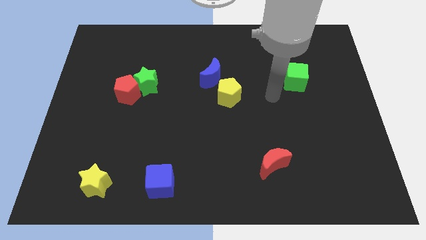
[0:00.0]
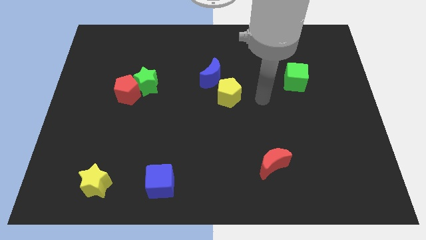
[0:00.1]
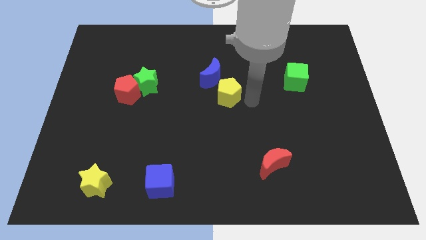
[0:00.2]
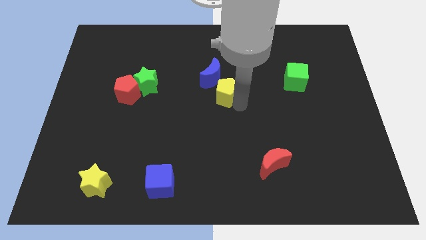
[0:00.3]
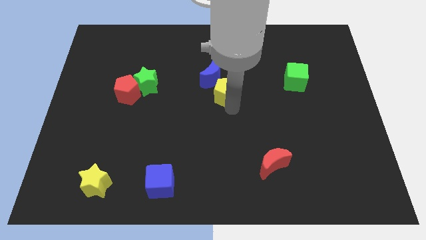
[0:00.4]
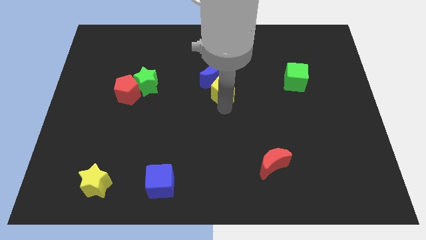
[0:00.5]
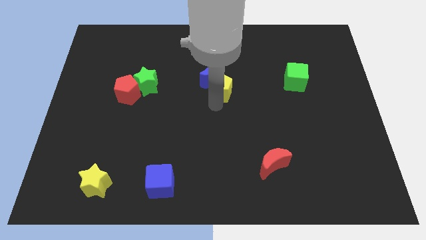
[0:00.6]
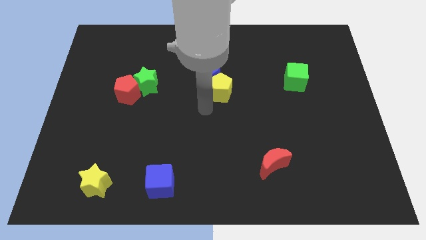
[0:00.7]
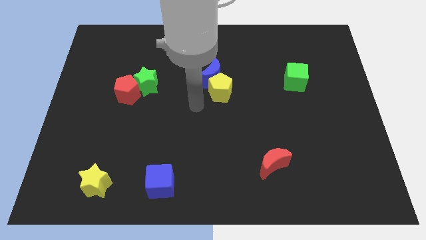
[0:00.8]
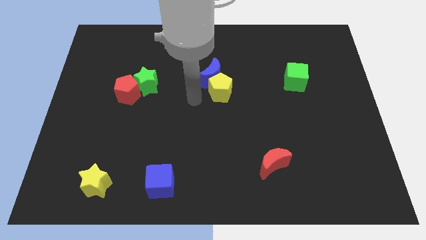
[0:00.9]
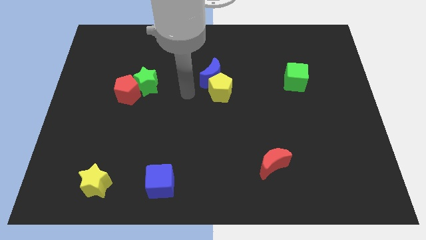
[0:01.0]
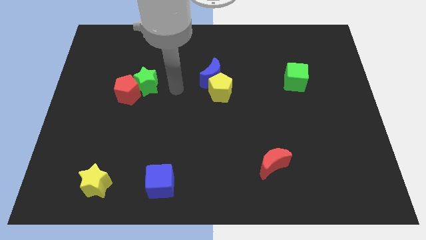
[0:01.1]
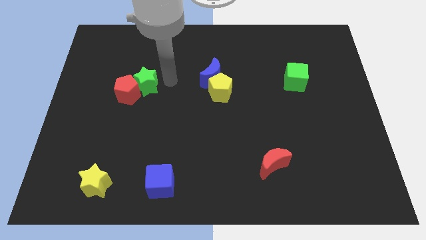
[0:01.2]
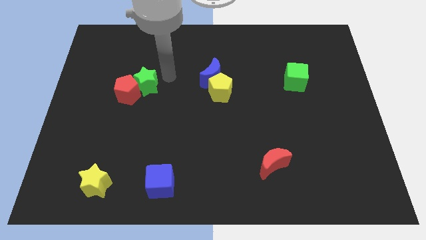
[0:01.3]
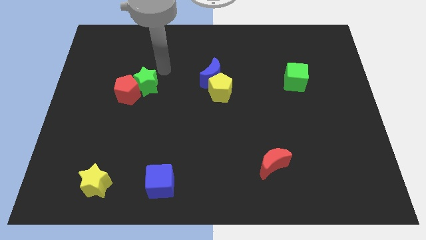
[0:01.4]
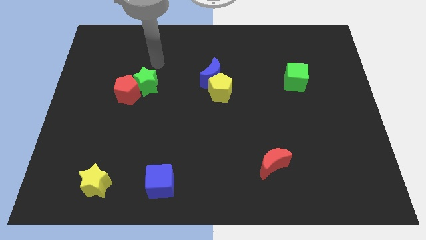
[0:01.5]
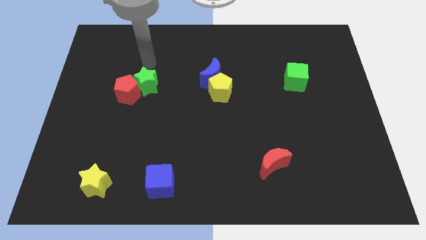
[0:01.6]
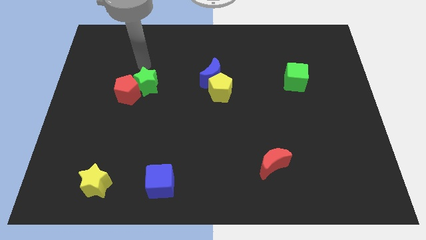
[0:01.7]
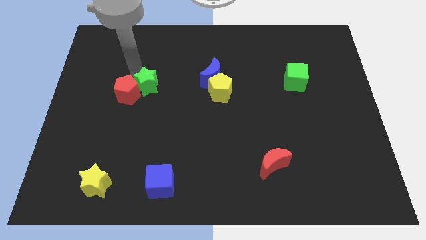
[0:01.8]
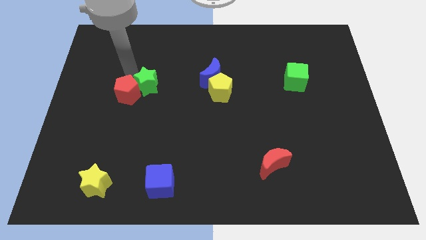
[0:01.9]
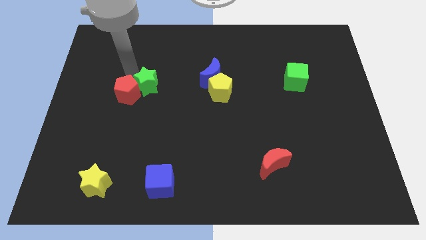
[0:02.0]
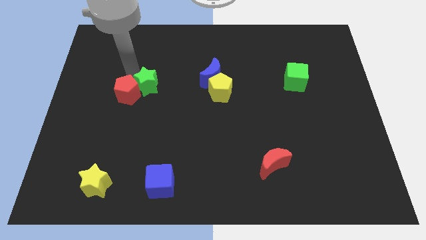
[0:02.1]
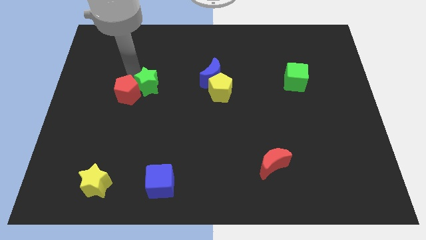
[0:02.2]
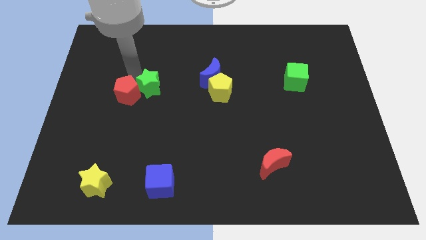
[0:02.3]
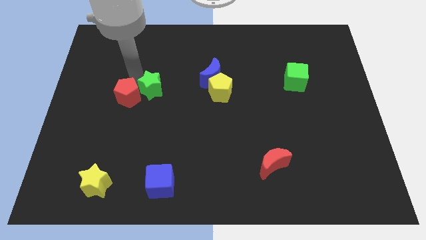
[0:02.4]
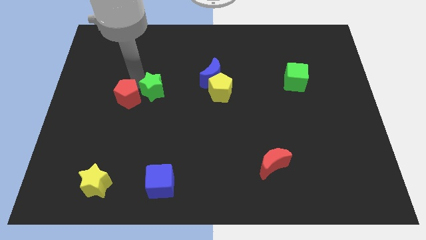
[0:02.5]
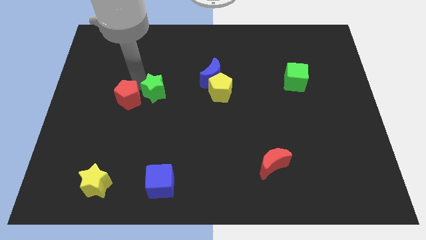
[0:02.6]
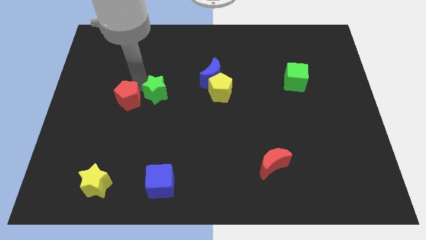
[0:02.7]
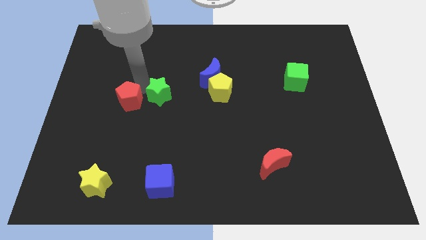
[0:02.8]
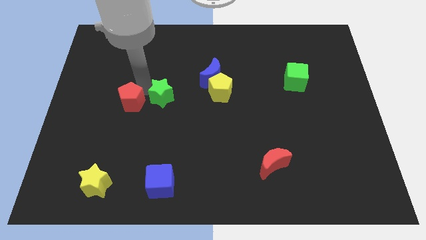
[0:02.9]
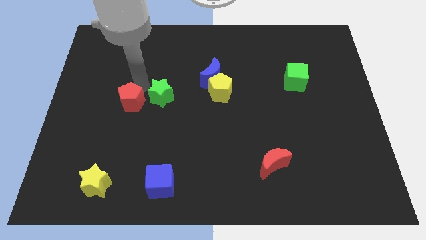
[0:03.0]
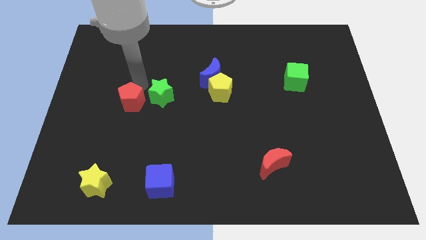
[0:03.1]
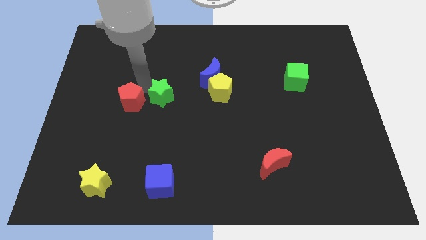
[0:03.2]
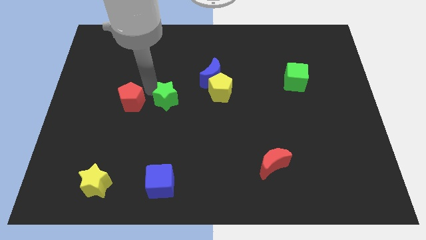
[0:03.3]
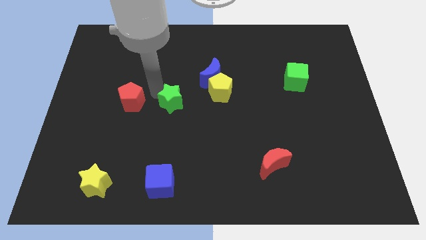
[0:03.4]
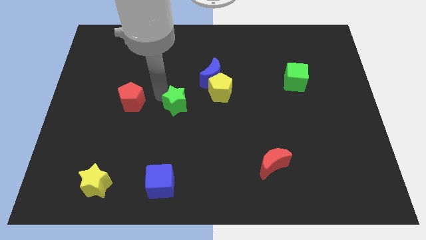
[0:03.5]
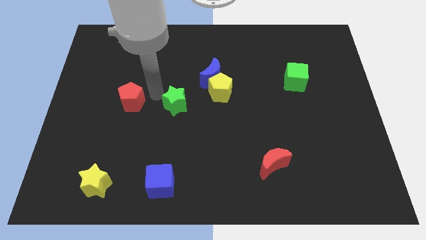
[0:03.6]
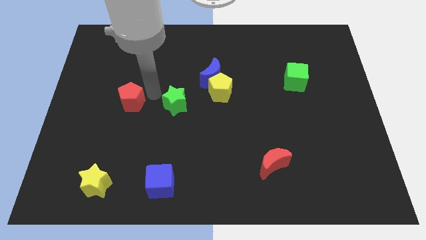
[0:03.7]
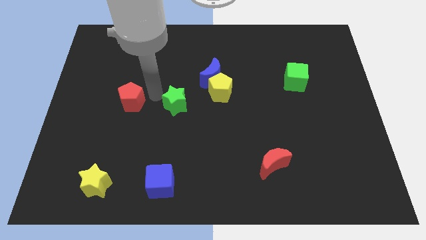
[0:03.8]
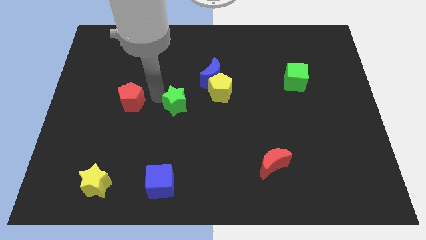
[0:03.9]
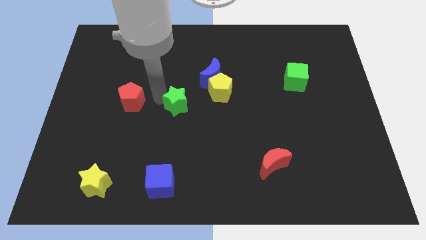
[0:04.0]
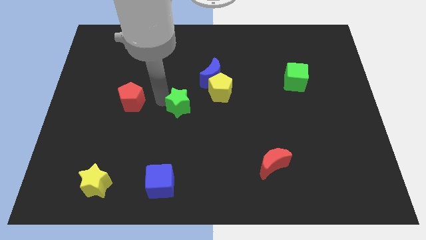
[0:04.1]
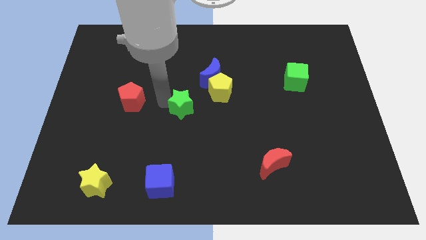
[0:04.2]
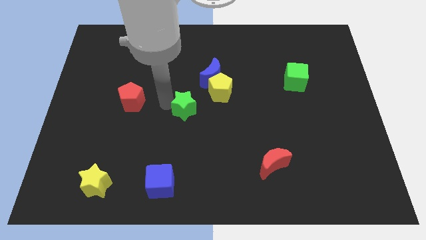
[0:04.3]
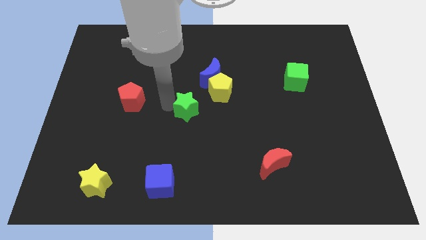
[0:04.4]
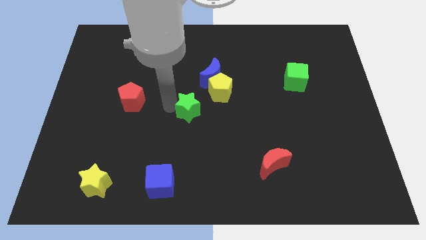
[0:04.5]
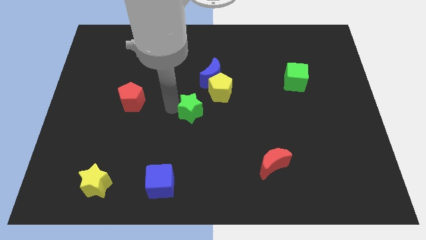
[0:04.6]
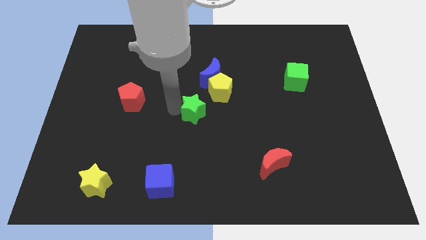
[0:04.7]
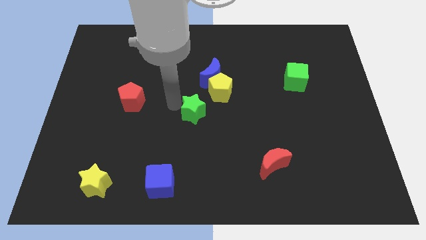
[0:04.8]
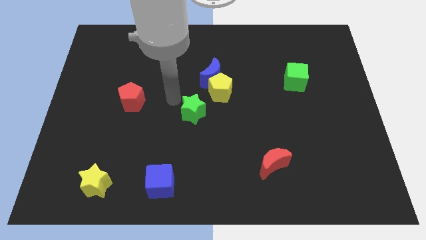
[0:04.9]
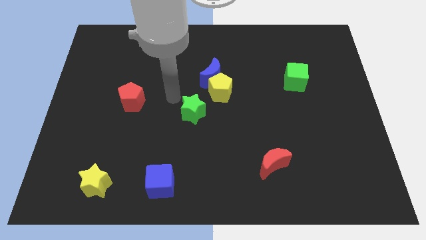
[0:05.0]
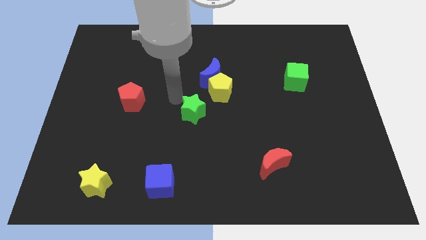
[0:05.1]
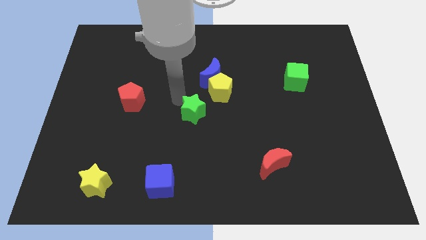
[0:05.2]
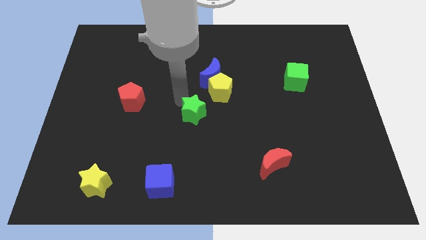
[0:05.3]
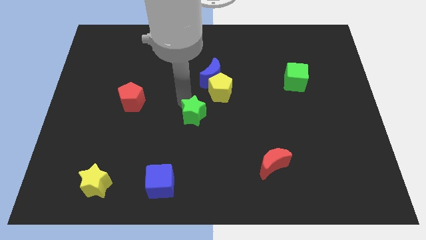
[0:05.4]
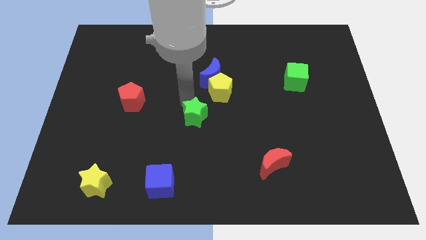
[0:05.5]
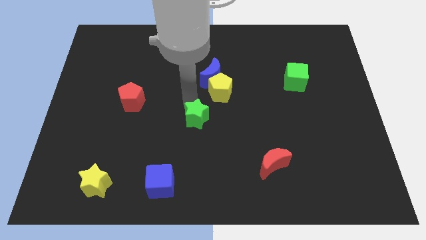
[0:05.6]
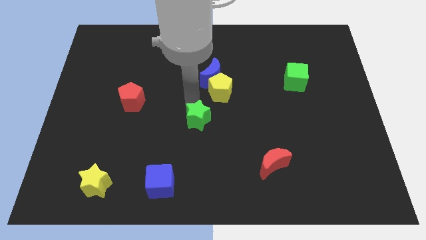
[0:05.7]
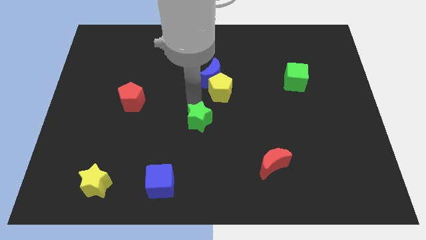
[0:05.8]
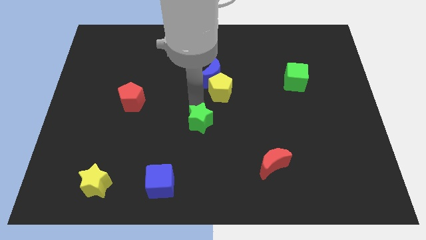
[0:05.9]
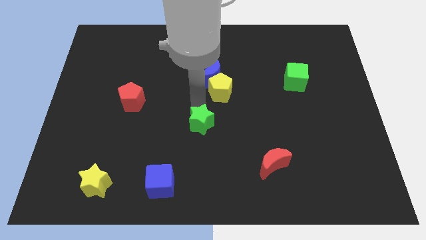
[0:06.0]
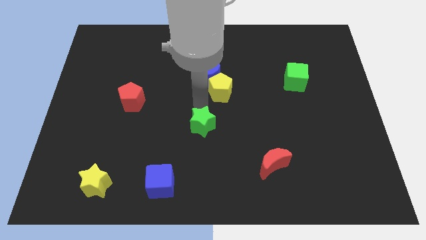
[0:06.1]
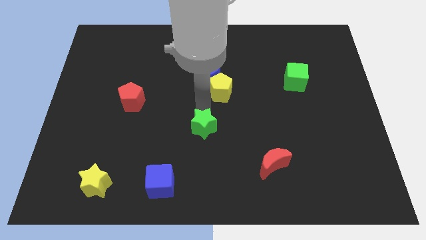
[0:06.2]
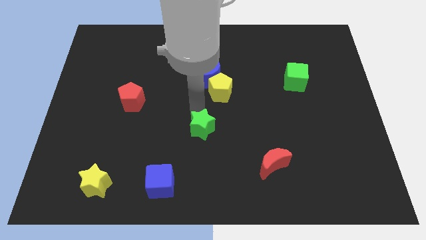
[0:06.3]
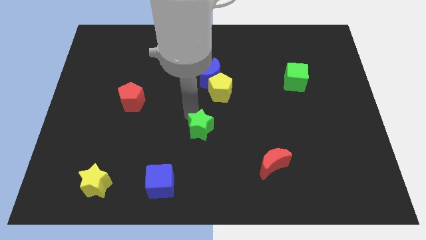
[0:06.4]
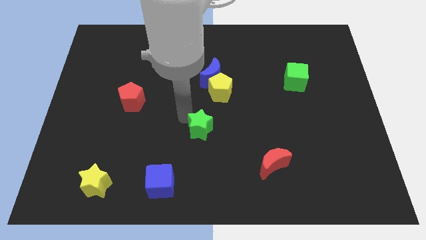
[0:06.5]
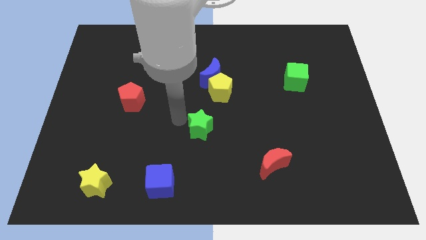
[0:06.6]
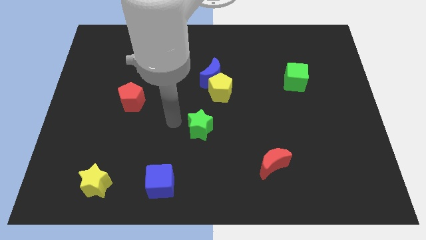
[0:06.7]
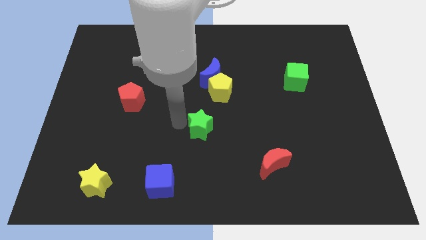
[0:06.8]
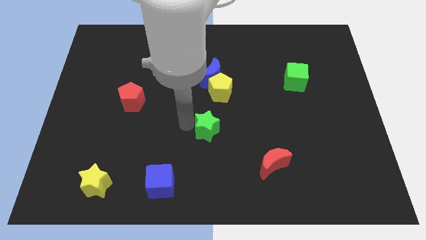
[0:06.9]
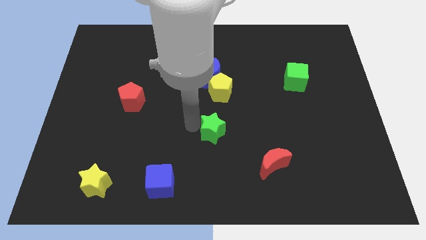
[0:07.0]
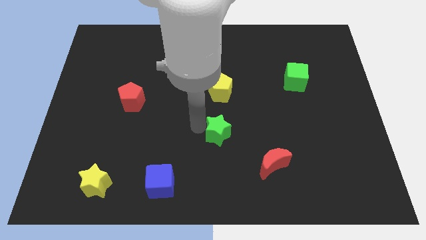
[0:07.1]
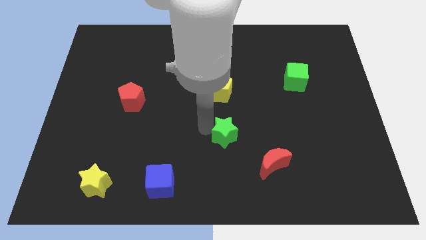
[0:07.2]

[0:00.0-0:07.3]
push the green star to the top left of the red moon
